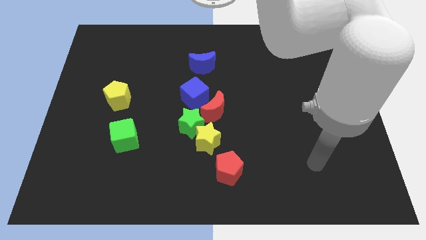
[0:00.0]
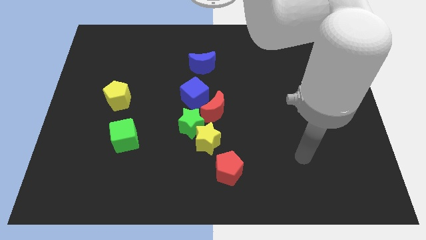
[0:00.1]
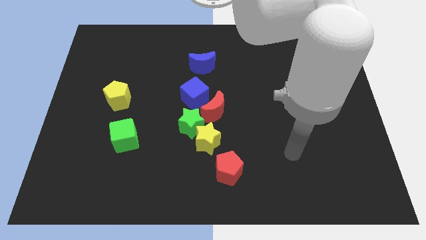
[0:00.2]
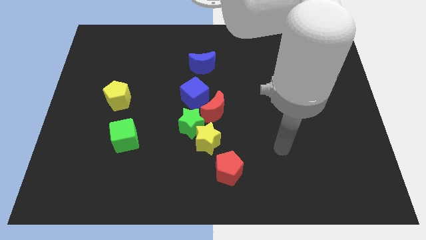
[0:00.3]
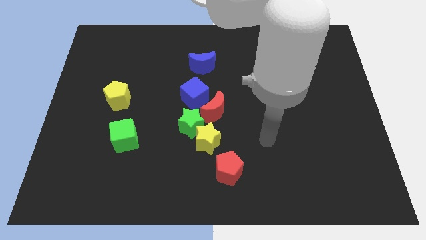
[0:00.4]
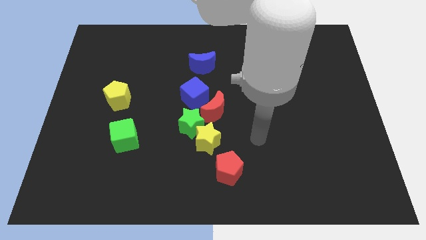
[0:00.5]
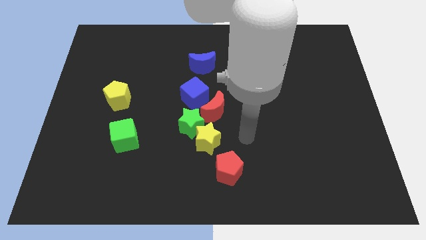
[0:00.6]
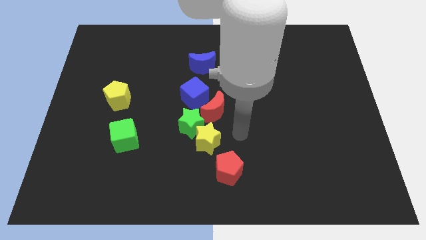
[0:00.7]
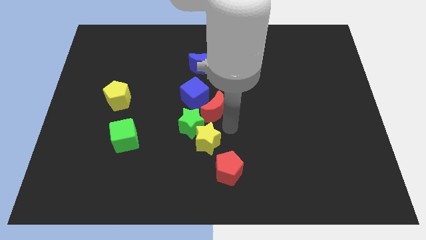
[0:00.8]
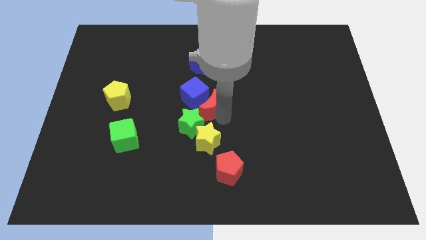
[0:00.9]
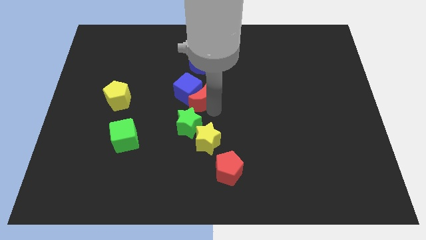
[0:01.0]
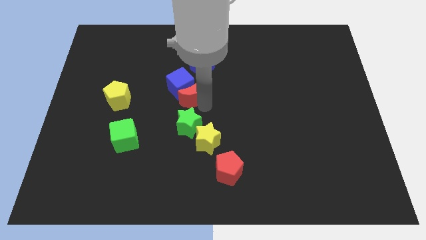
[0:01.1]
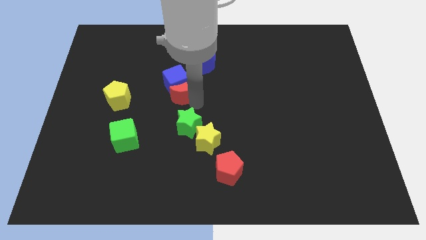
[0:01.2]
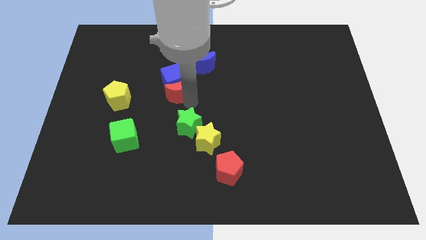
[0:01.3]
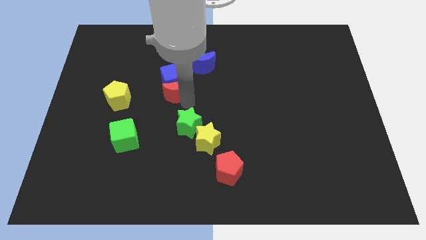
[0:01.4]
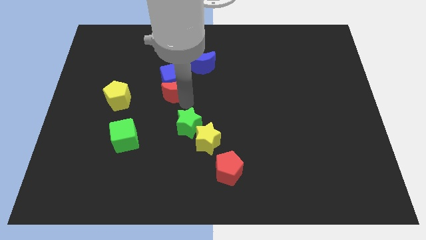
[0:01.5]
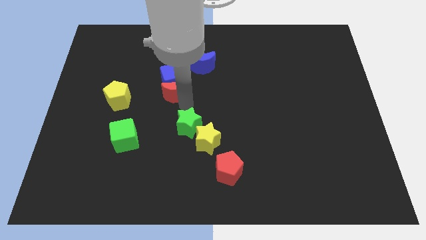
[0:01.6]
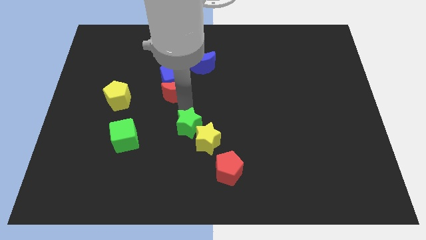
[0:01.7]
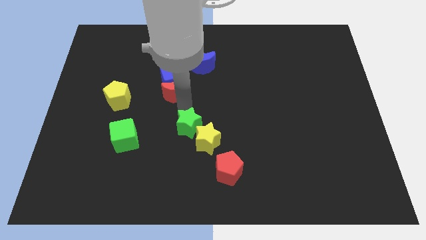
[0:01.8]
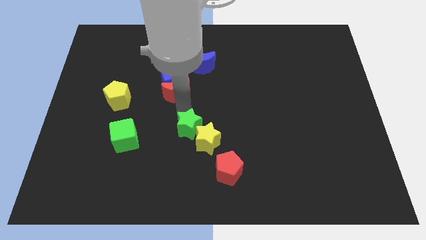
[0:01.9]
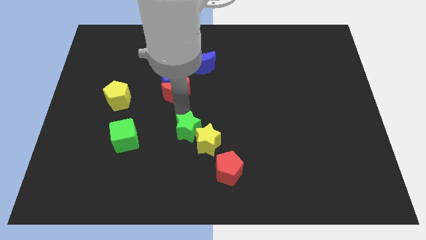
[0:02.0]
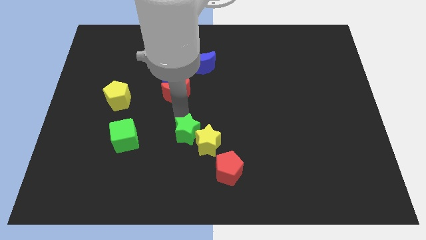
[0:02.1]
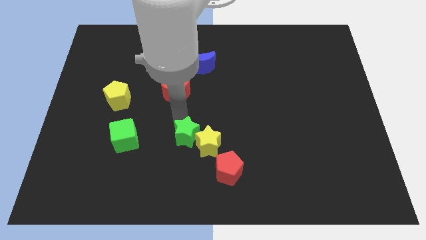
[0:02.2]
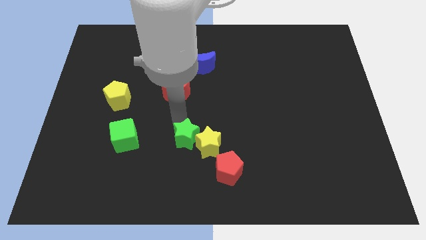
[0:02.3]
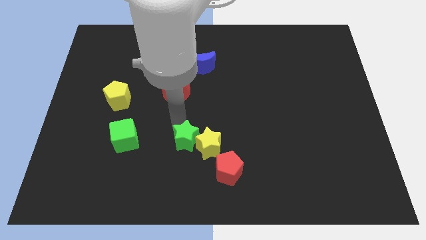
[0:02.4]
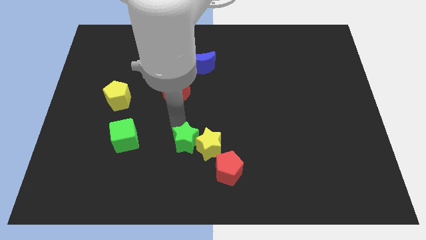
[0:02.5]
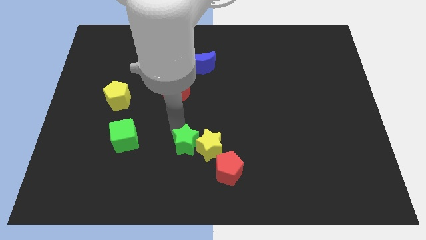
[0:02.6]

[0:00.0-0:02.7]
separate the green star from the yellow star, red moon, and blue cube

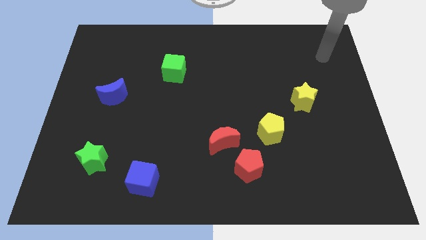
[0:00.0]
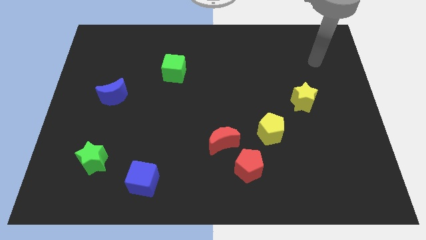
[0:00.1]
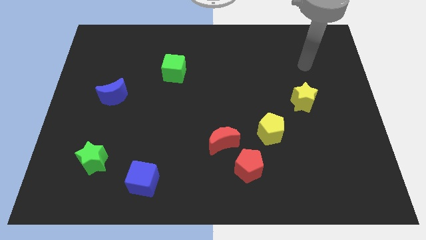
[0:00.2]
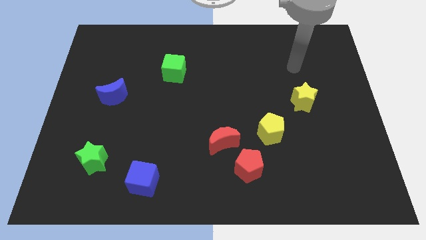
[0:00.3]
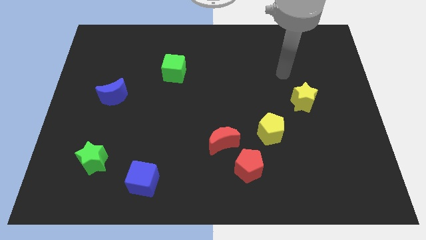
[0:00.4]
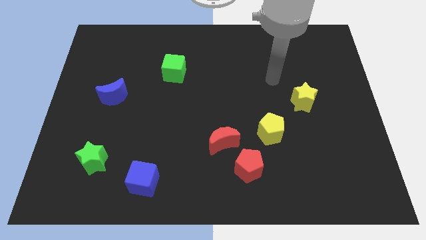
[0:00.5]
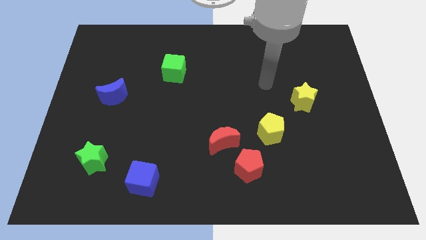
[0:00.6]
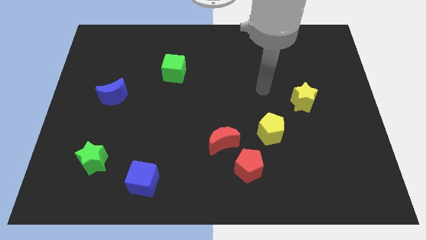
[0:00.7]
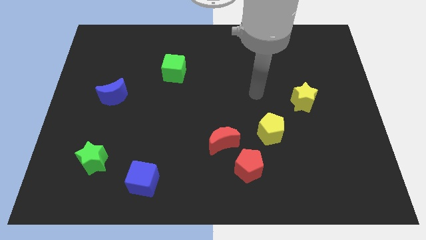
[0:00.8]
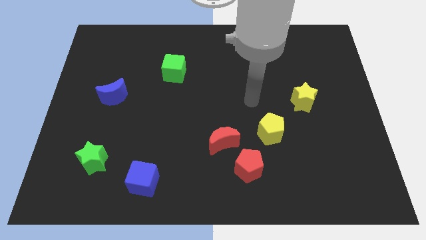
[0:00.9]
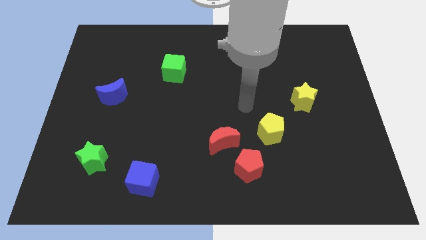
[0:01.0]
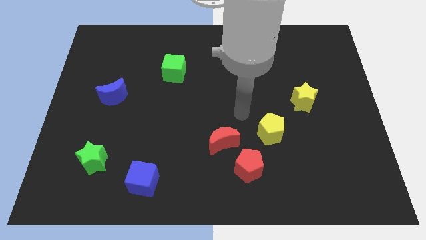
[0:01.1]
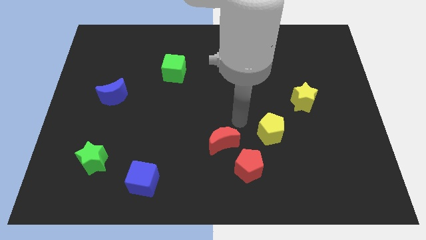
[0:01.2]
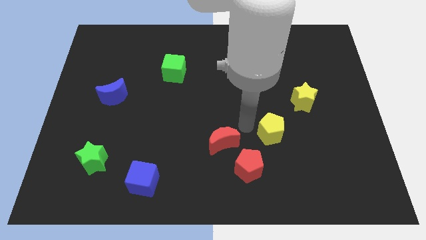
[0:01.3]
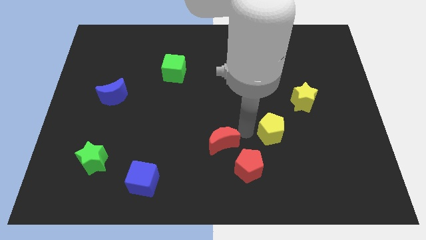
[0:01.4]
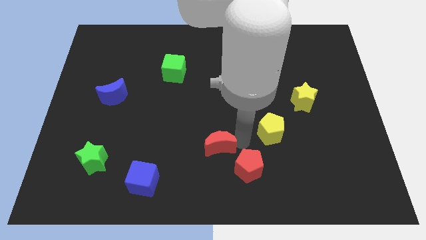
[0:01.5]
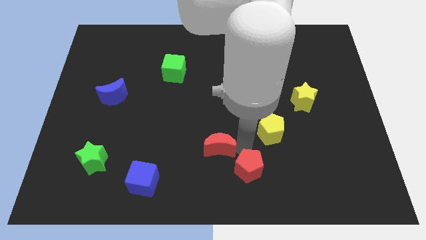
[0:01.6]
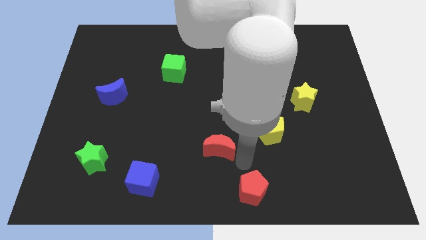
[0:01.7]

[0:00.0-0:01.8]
pull the red moon apart from the red pentagon

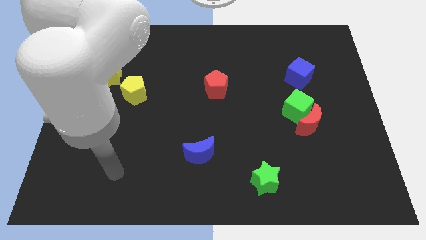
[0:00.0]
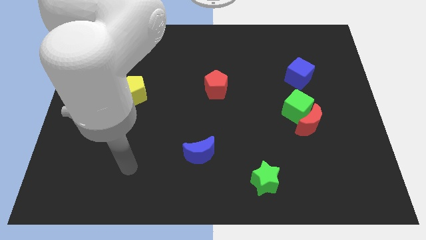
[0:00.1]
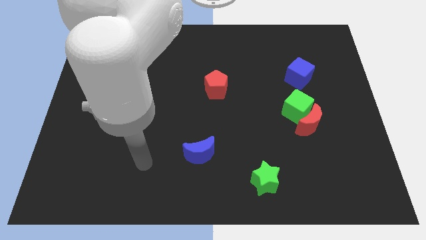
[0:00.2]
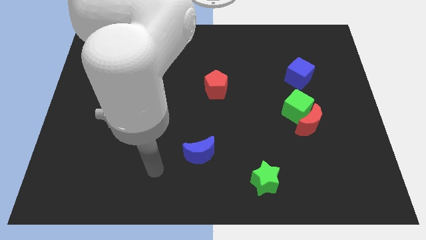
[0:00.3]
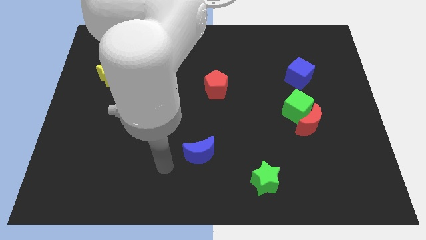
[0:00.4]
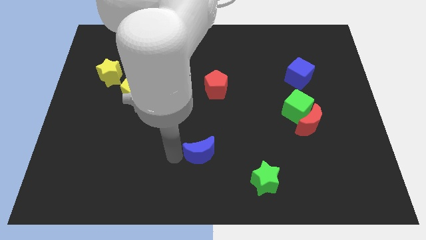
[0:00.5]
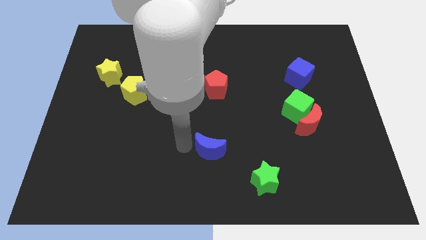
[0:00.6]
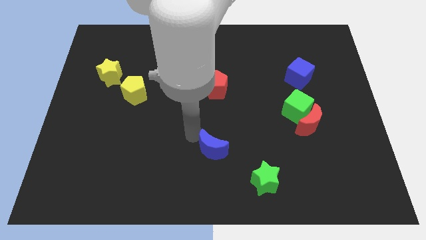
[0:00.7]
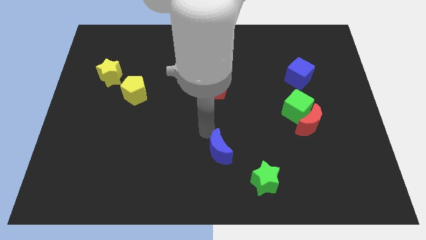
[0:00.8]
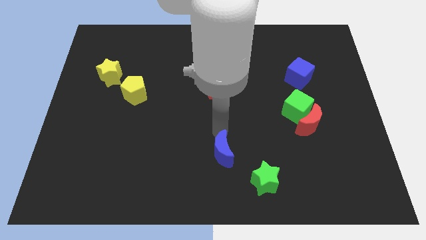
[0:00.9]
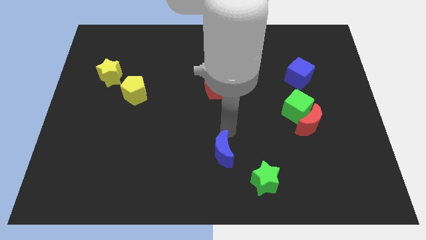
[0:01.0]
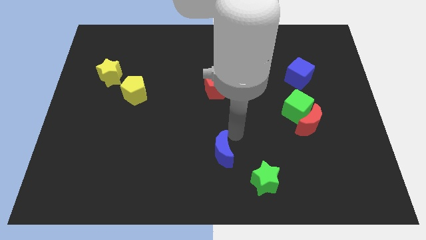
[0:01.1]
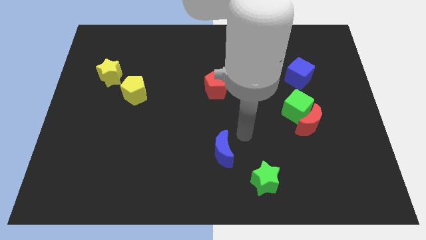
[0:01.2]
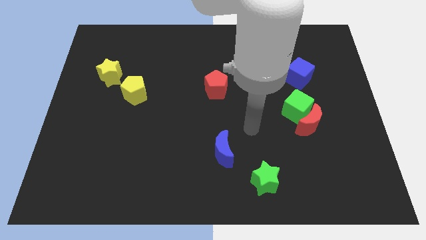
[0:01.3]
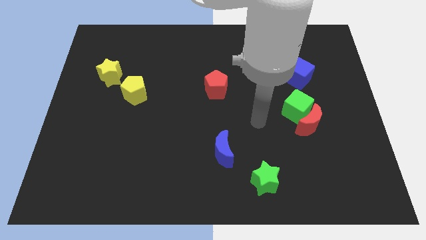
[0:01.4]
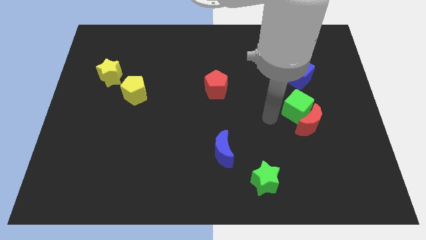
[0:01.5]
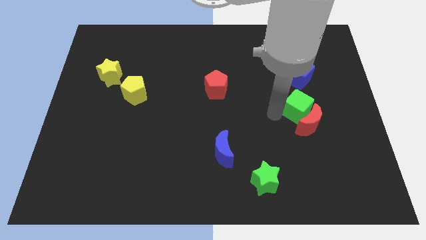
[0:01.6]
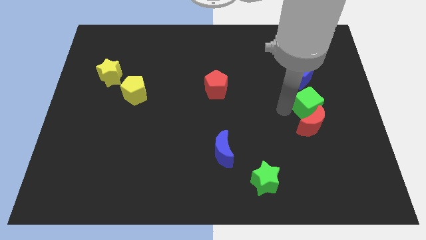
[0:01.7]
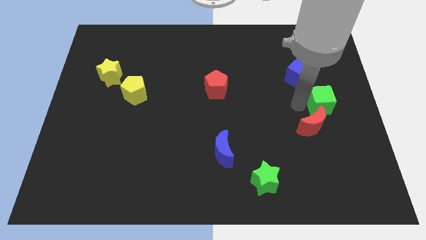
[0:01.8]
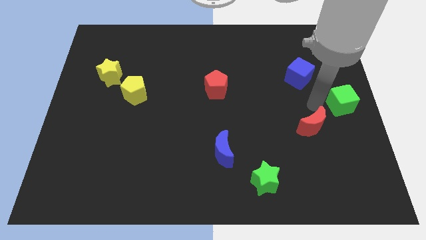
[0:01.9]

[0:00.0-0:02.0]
move the red moon away from the green cube

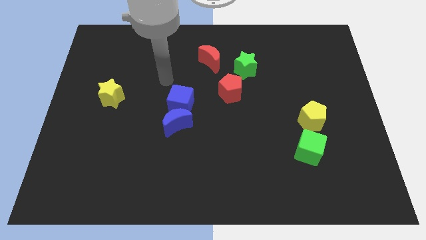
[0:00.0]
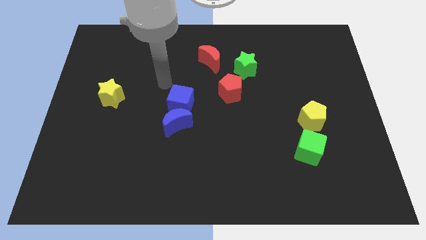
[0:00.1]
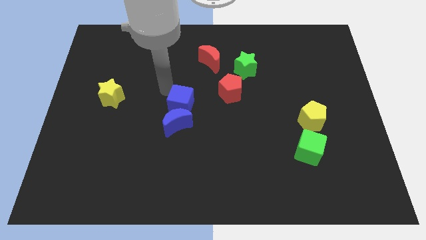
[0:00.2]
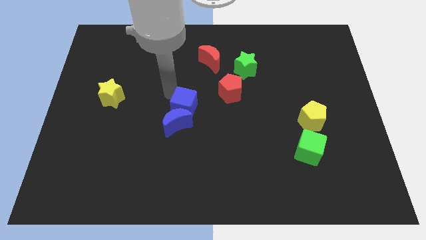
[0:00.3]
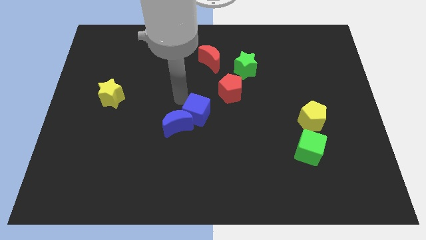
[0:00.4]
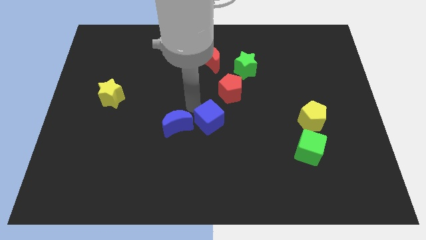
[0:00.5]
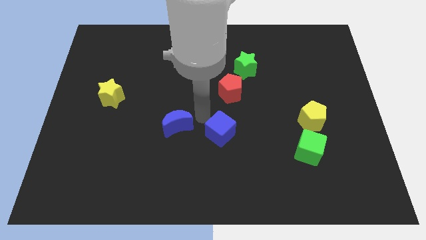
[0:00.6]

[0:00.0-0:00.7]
pull the blue moon apart from the blue cube

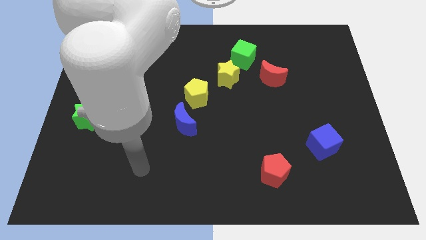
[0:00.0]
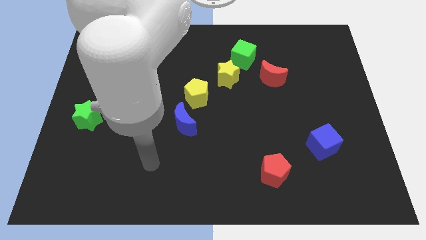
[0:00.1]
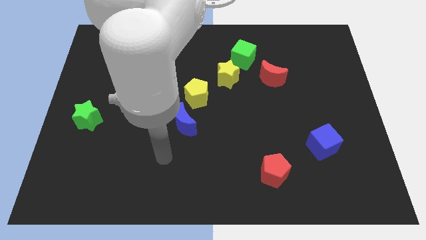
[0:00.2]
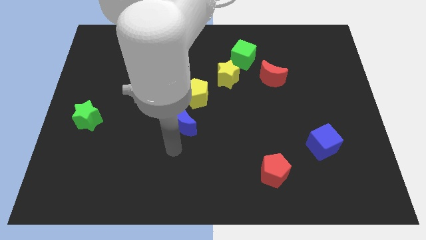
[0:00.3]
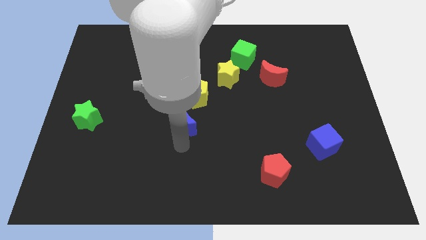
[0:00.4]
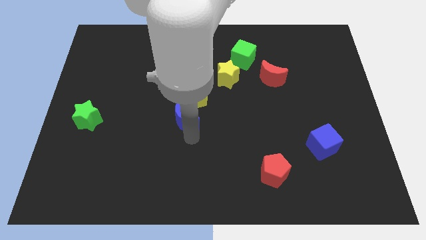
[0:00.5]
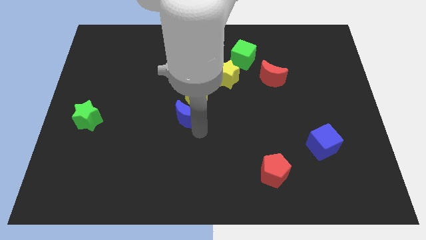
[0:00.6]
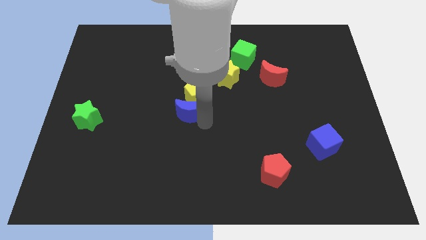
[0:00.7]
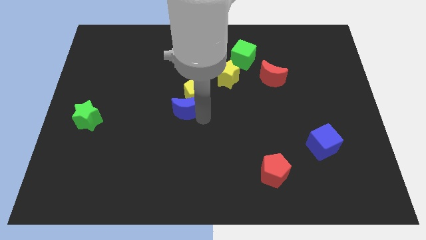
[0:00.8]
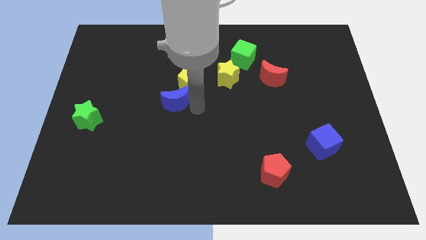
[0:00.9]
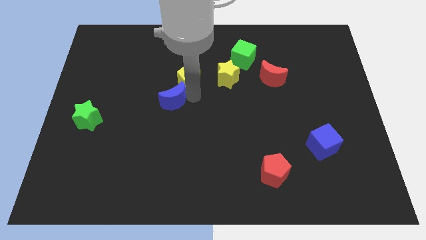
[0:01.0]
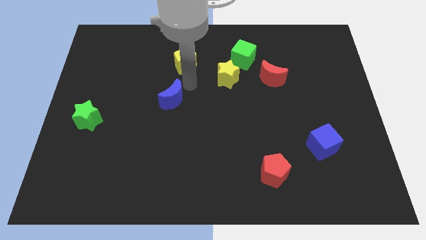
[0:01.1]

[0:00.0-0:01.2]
pull the blue moon apart from the yellow pentagon

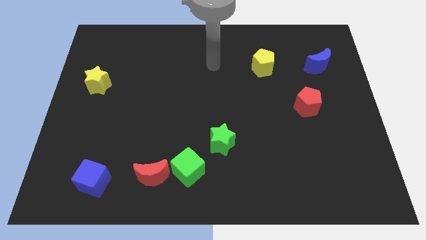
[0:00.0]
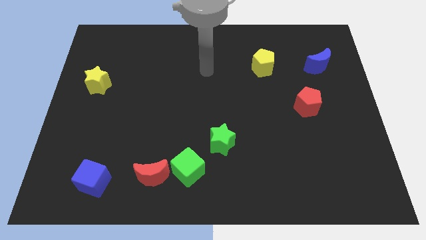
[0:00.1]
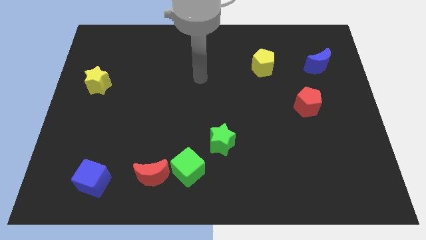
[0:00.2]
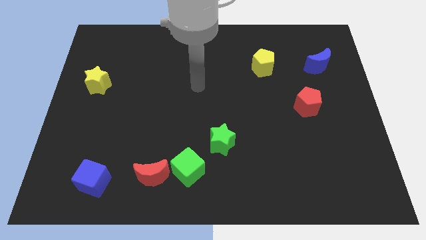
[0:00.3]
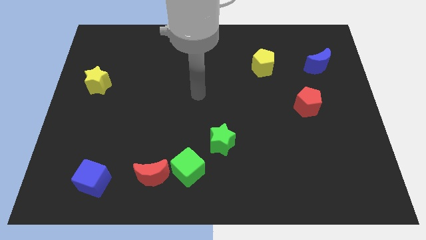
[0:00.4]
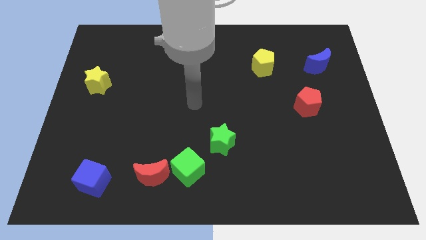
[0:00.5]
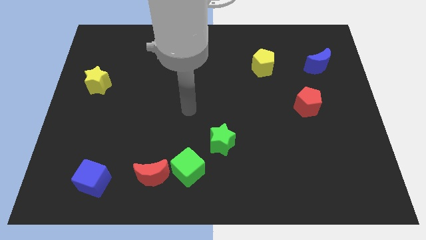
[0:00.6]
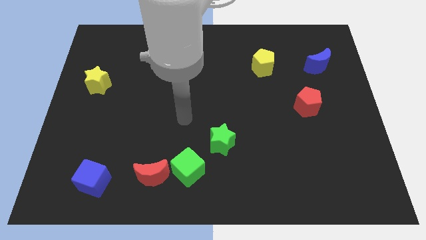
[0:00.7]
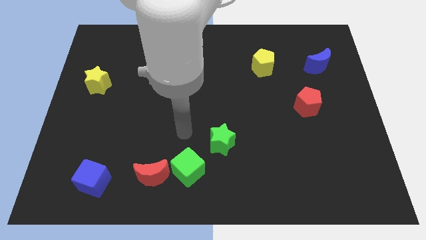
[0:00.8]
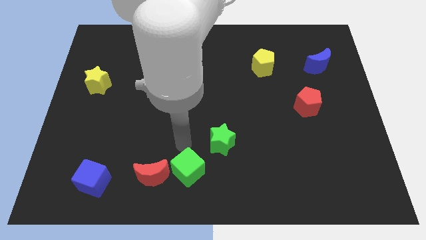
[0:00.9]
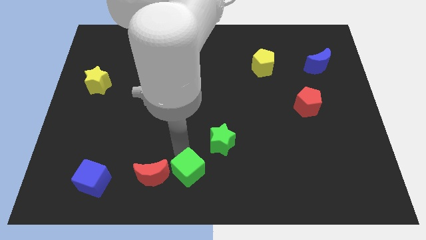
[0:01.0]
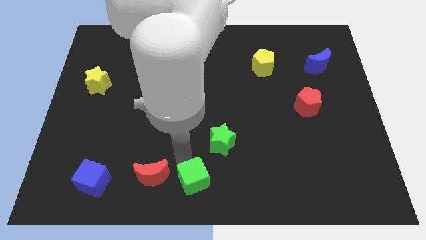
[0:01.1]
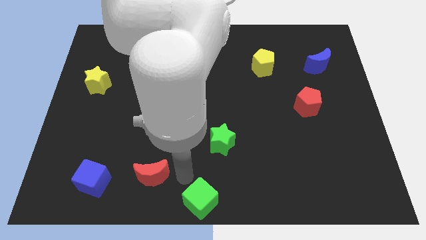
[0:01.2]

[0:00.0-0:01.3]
separate the red moon from the green cube
